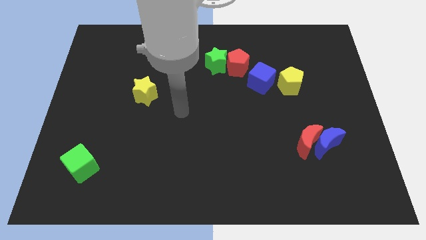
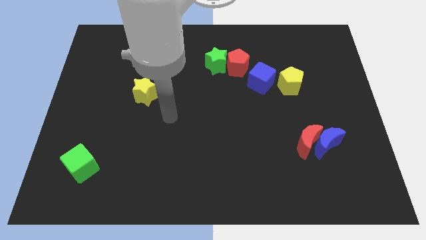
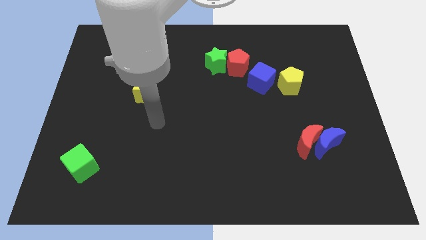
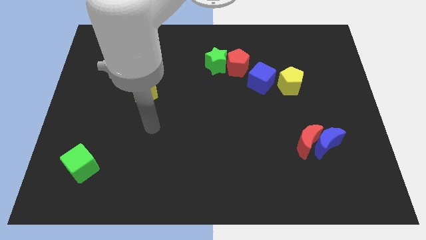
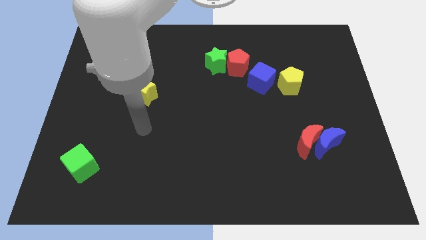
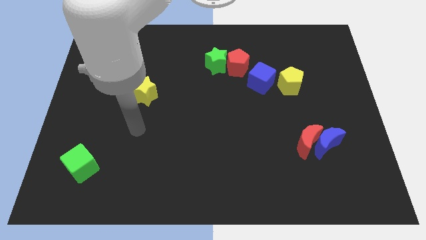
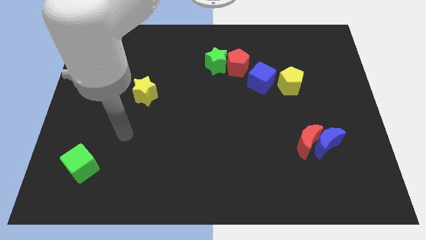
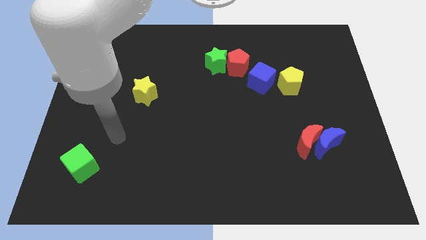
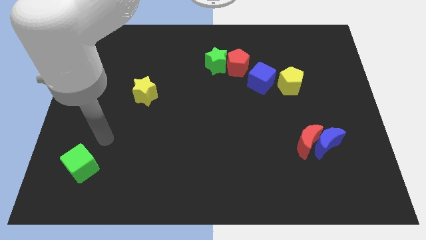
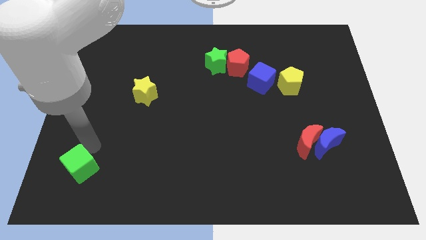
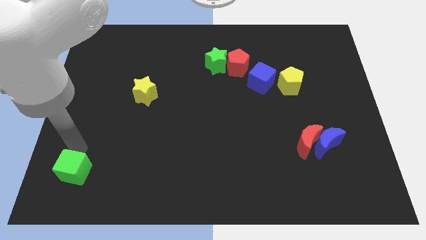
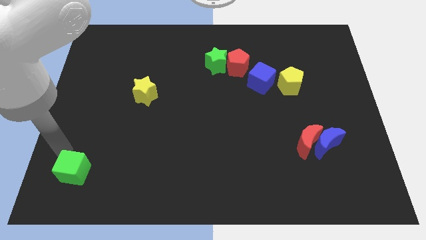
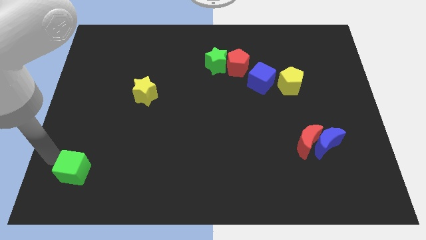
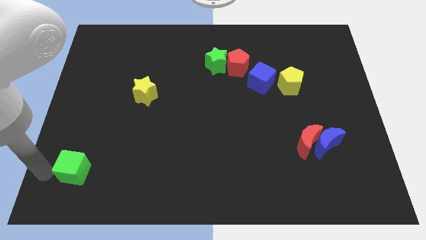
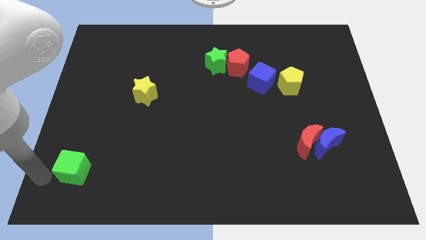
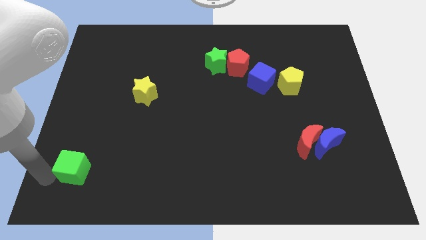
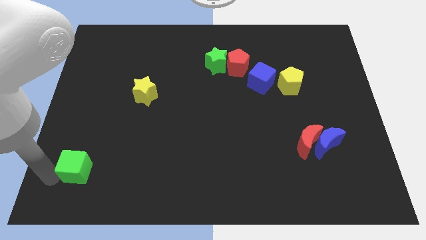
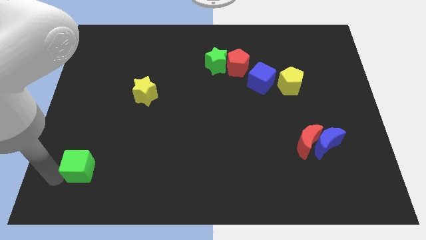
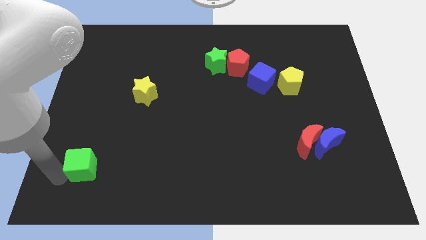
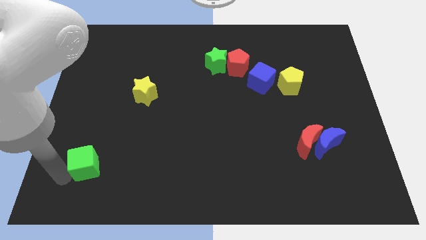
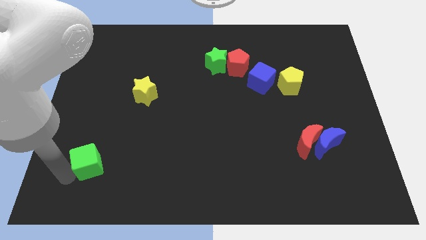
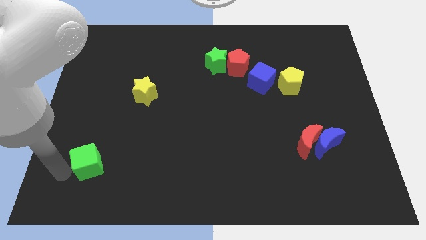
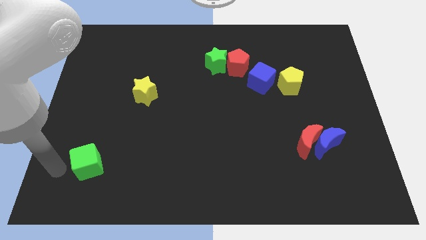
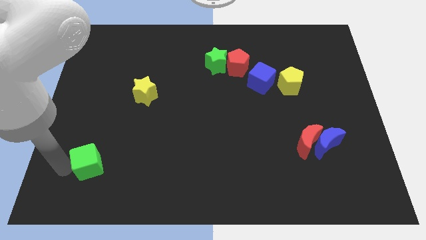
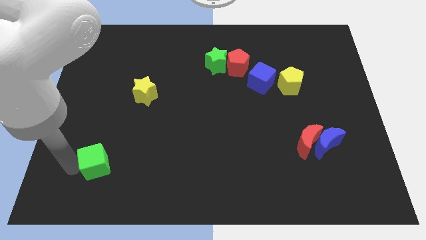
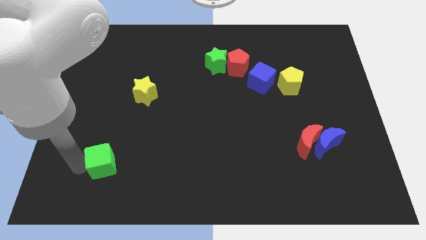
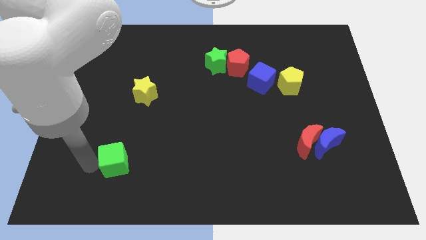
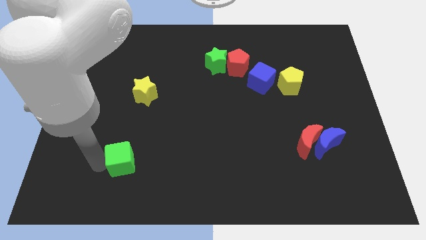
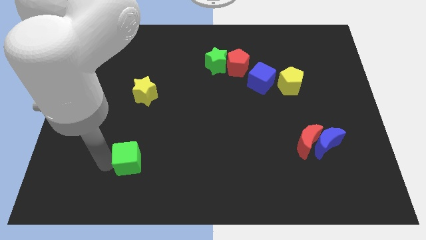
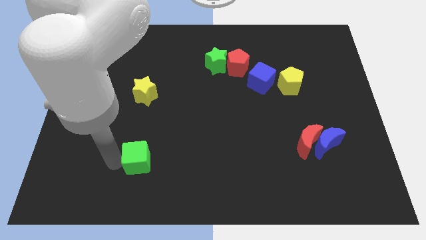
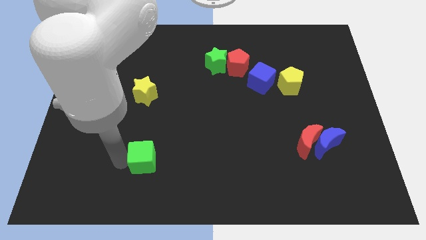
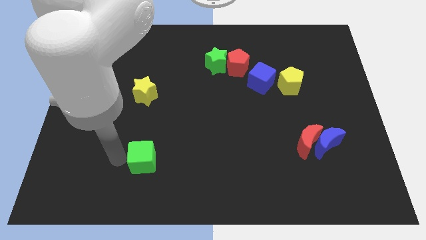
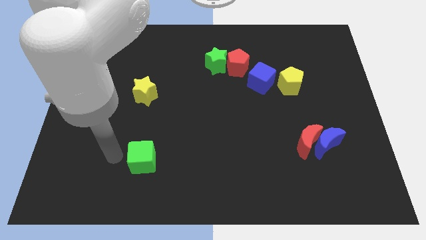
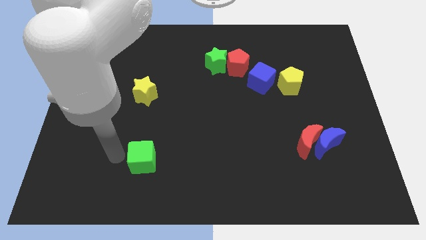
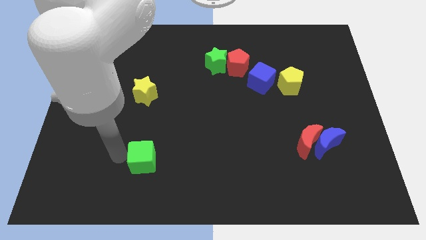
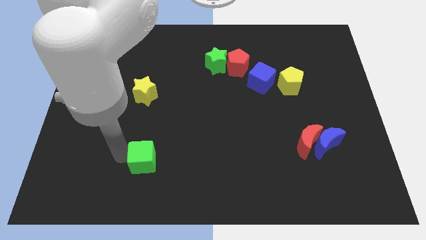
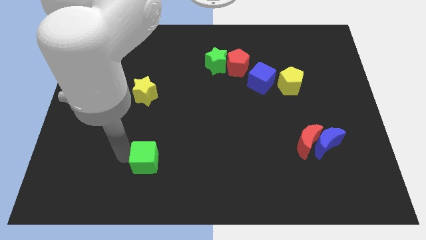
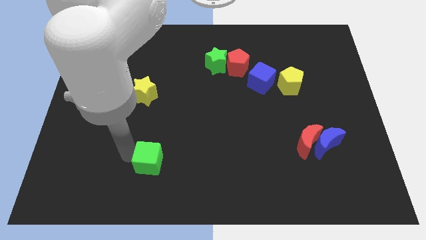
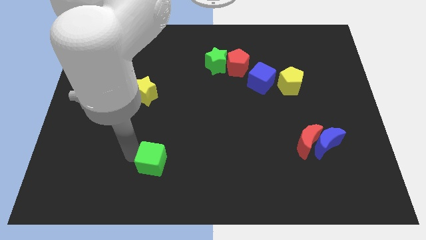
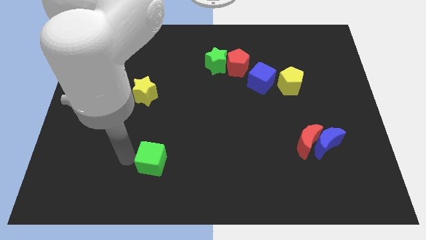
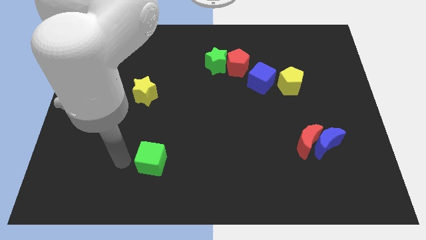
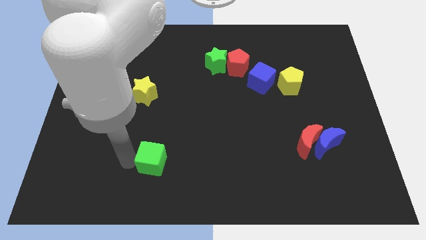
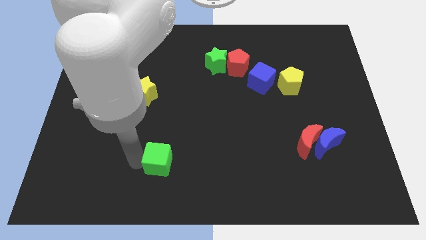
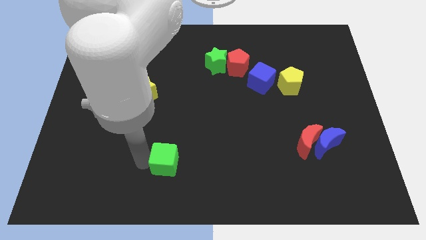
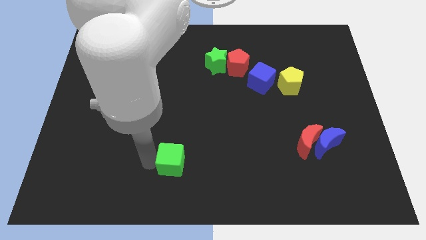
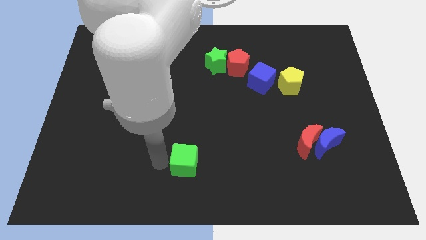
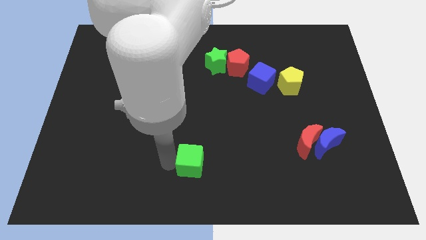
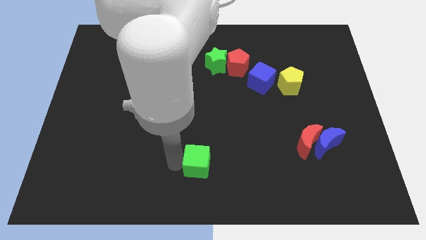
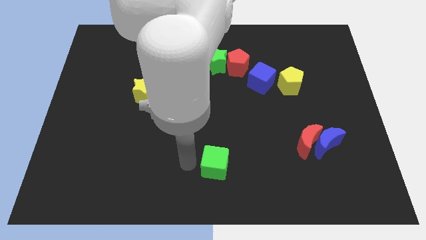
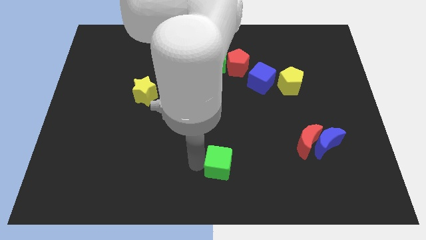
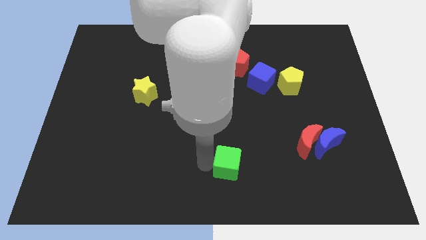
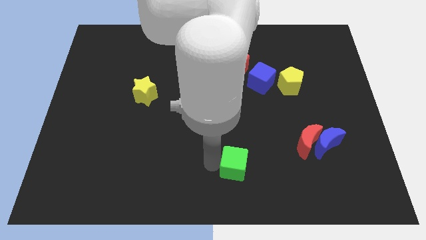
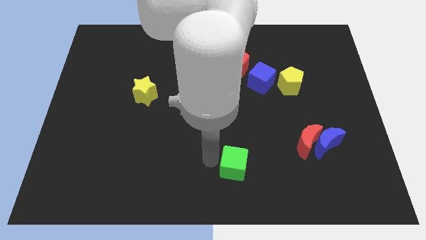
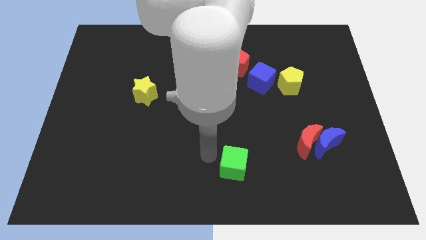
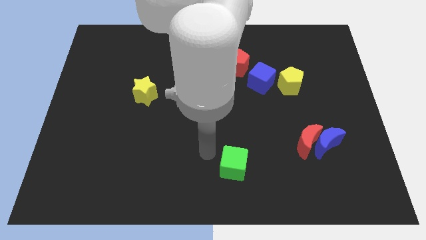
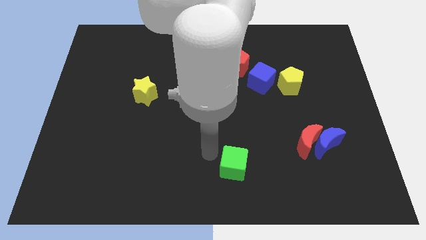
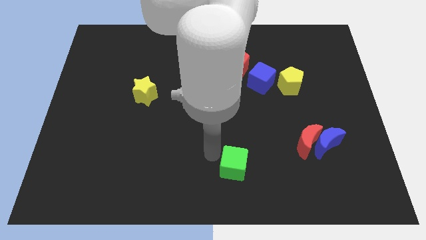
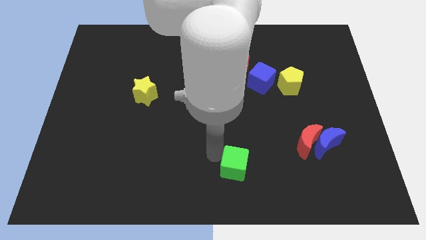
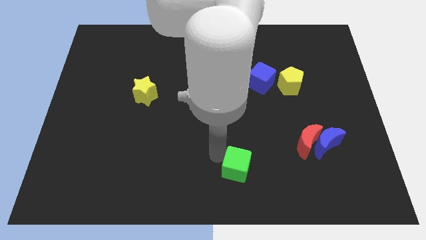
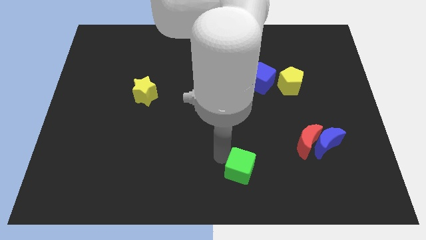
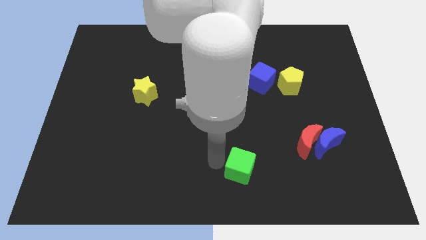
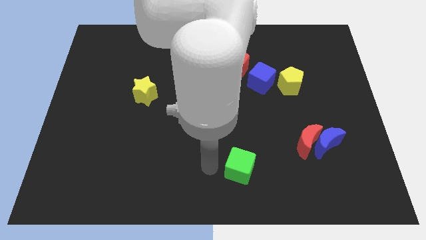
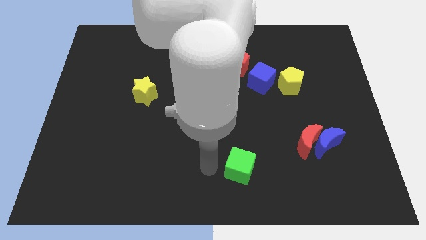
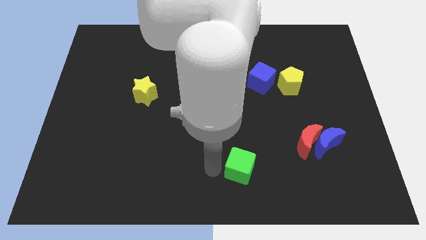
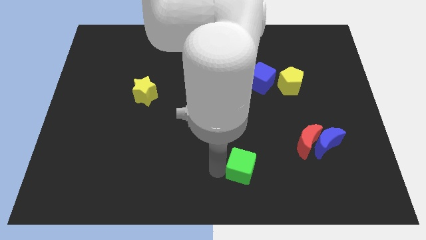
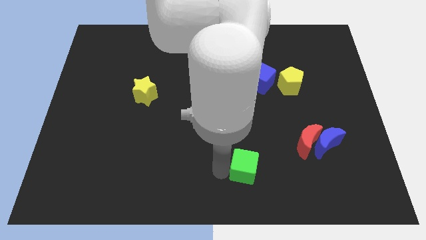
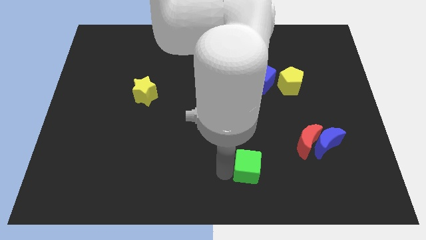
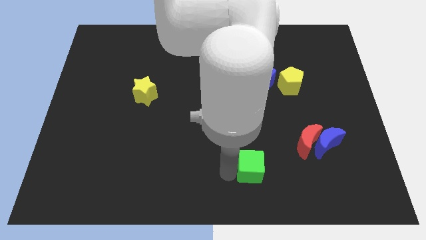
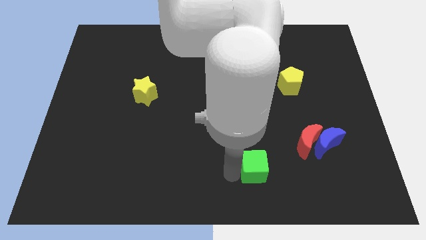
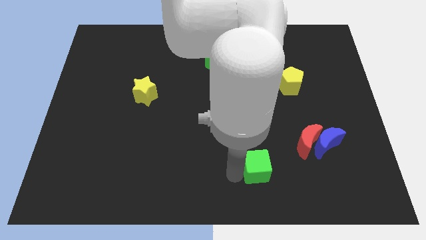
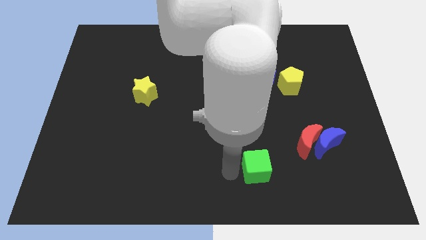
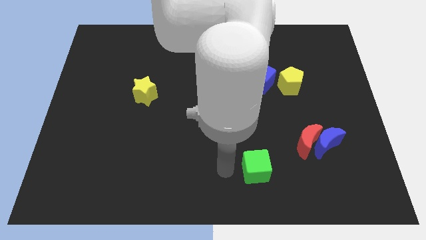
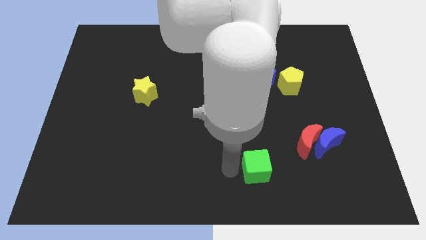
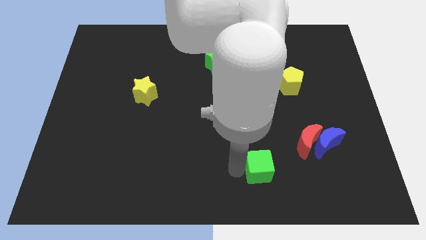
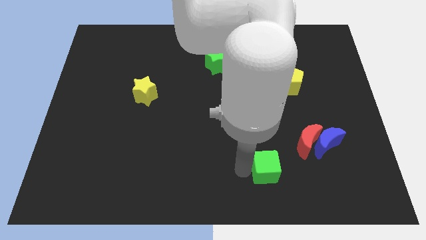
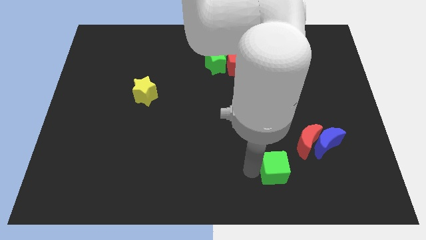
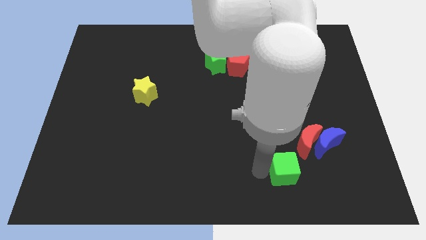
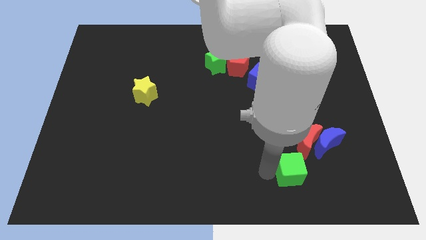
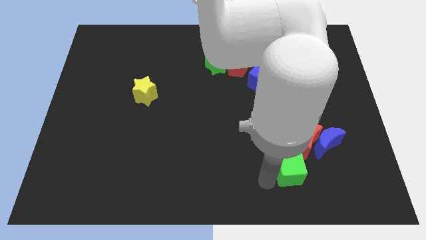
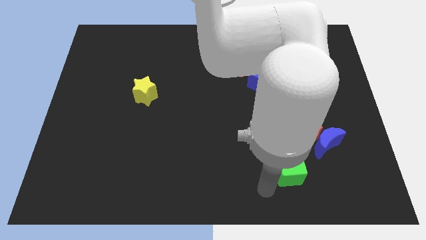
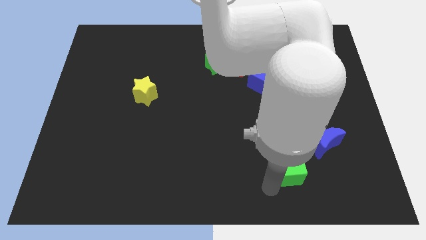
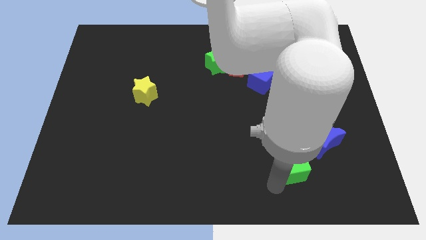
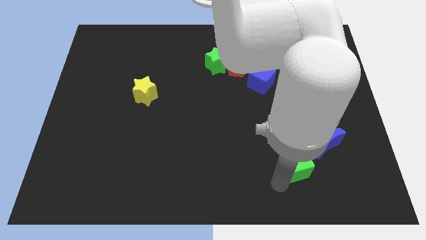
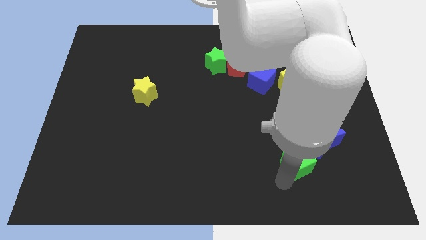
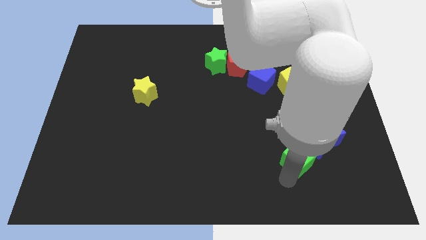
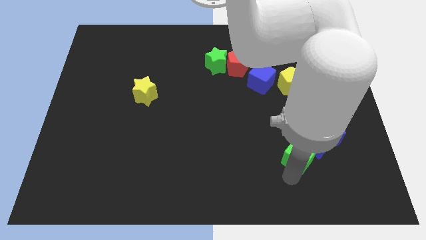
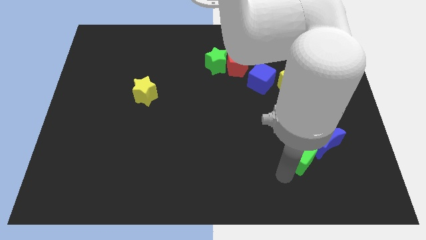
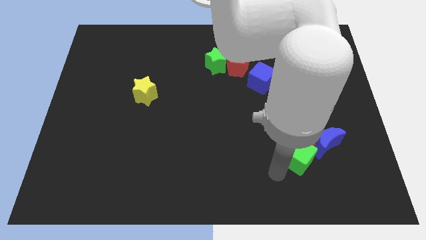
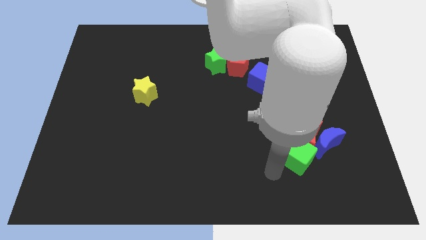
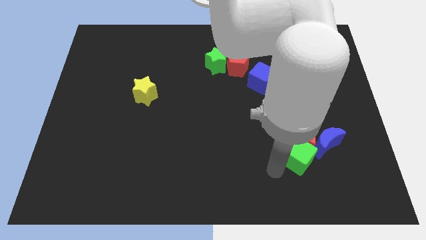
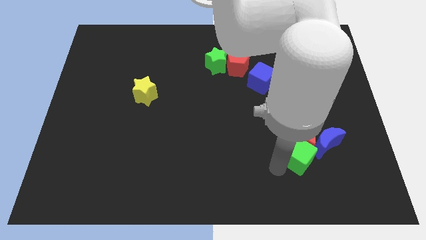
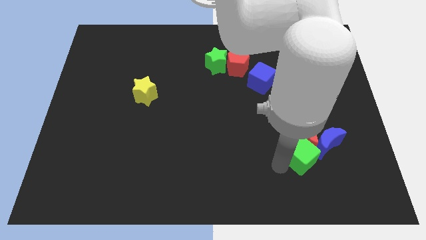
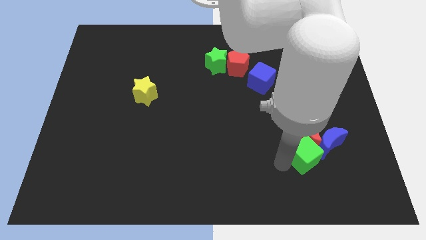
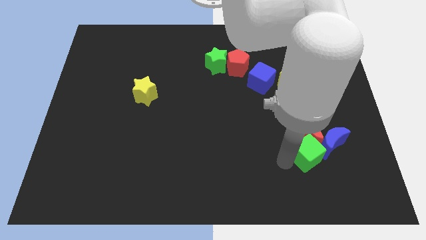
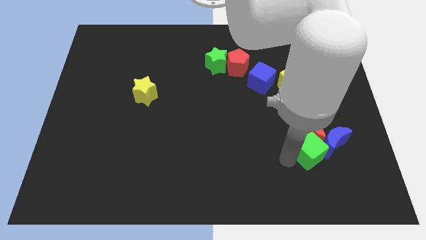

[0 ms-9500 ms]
put the green cube to the blue moon
